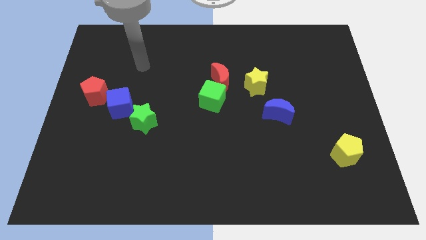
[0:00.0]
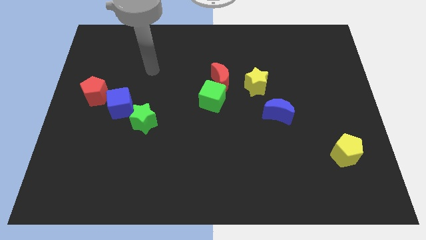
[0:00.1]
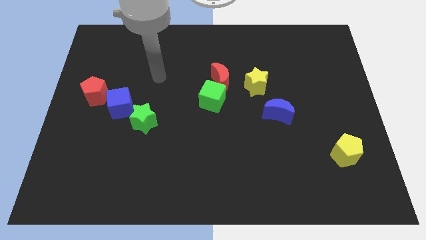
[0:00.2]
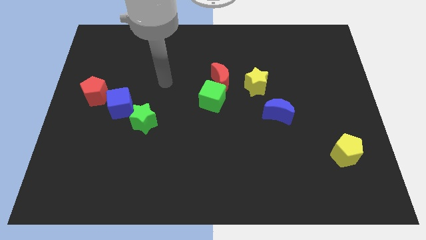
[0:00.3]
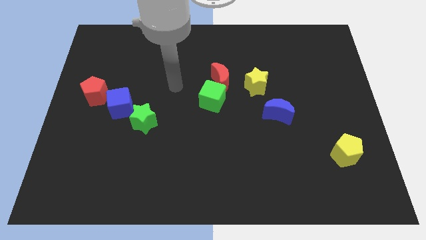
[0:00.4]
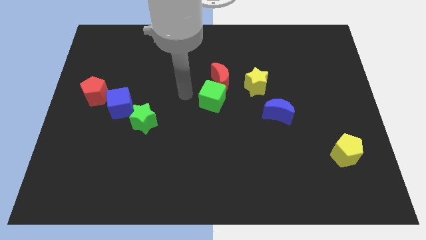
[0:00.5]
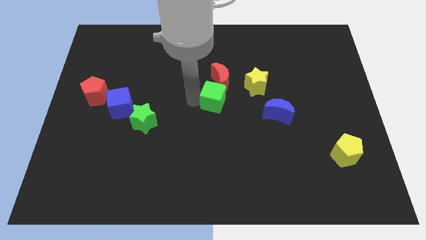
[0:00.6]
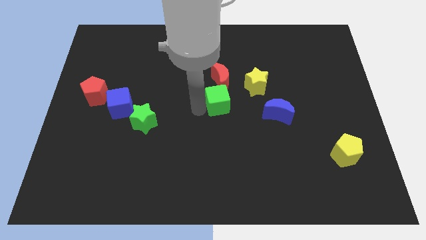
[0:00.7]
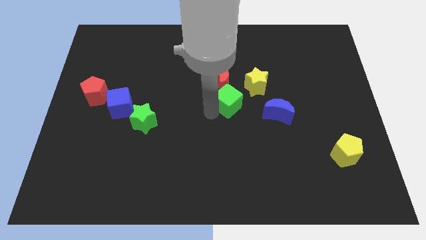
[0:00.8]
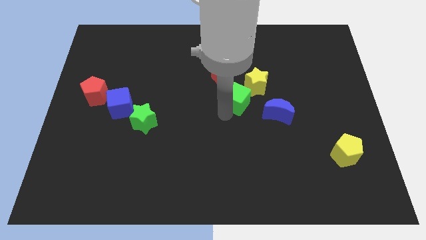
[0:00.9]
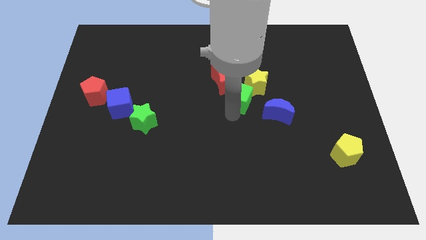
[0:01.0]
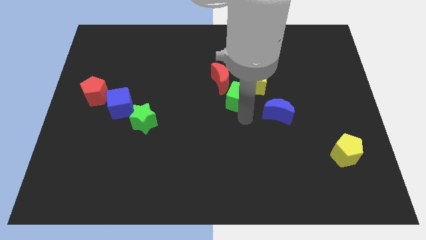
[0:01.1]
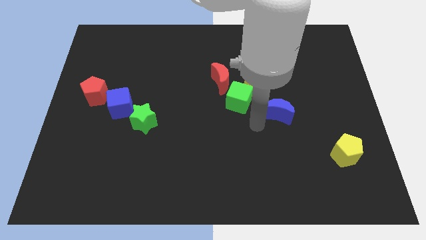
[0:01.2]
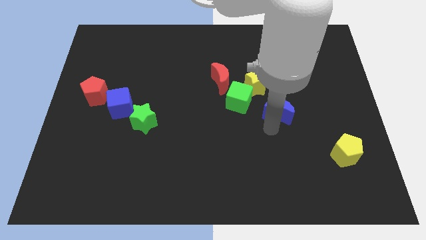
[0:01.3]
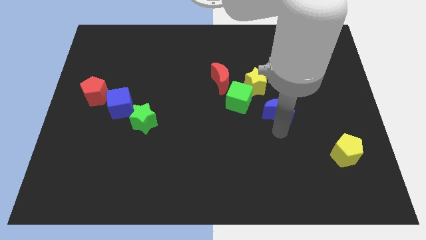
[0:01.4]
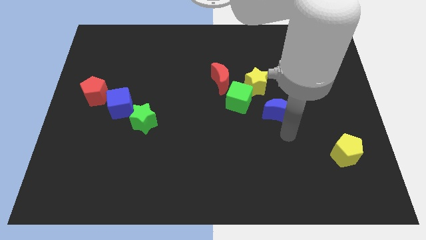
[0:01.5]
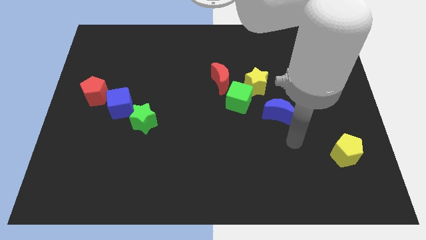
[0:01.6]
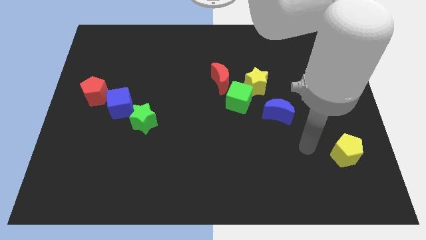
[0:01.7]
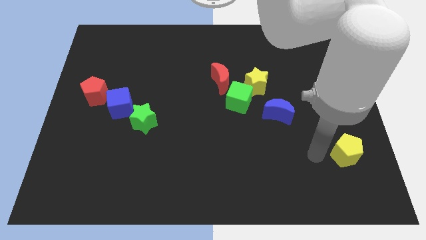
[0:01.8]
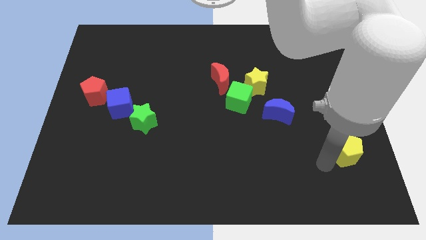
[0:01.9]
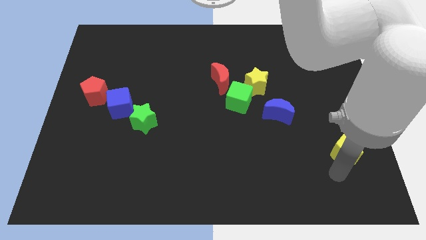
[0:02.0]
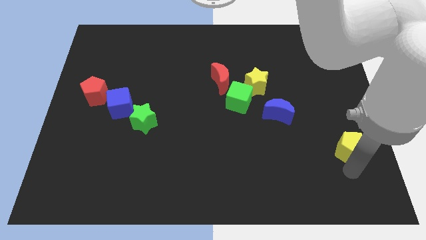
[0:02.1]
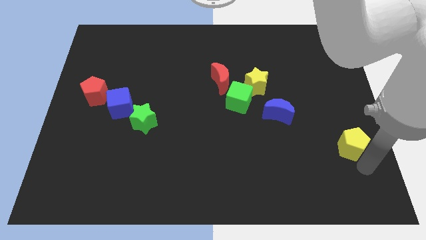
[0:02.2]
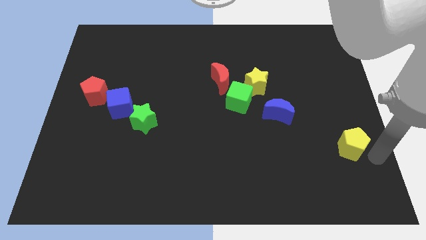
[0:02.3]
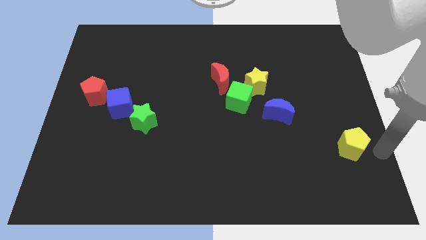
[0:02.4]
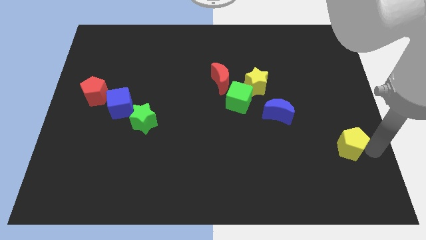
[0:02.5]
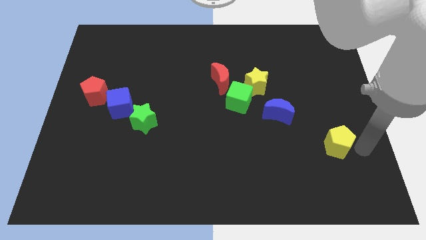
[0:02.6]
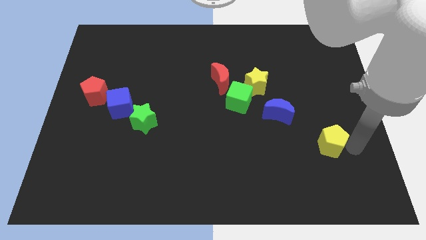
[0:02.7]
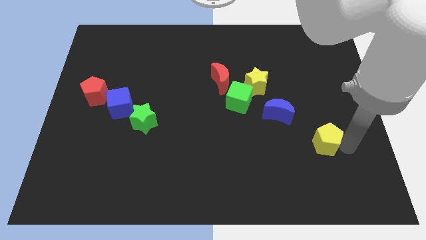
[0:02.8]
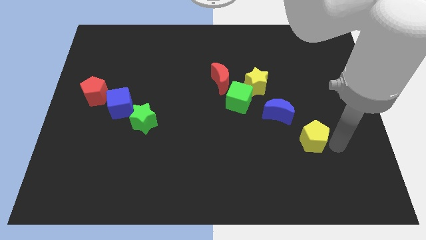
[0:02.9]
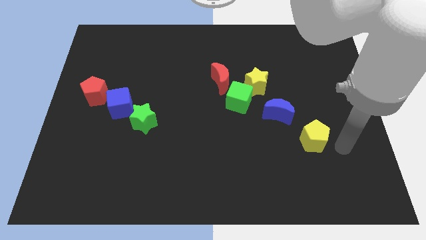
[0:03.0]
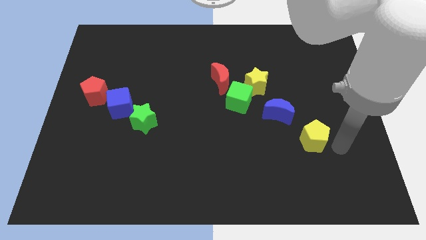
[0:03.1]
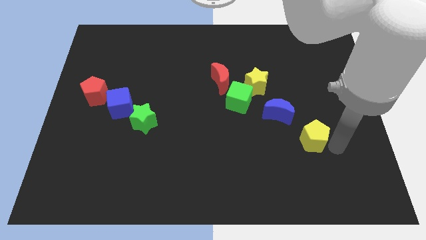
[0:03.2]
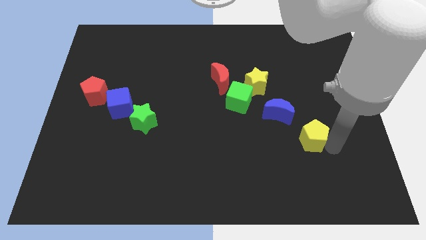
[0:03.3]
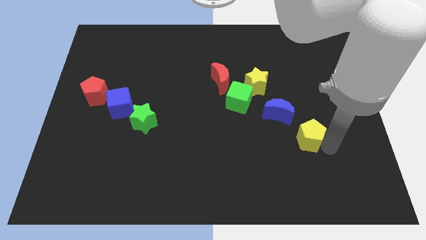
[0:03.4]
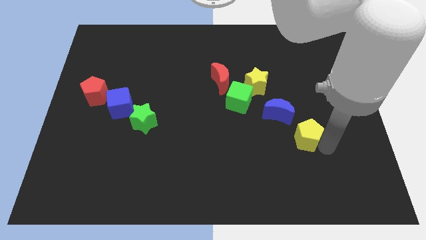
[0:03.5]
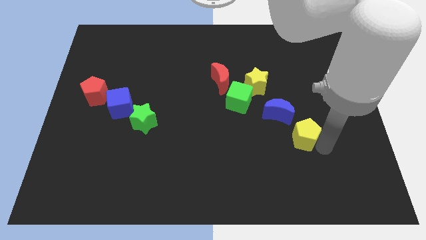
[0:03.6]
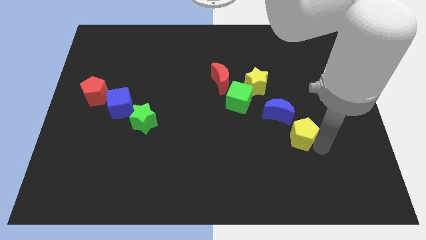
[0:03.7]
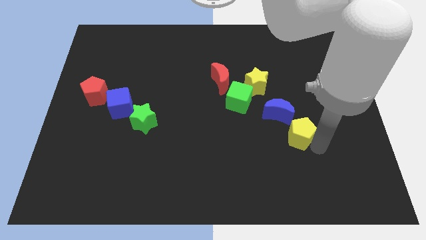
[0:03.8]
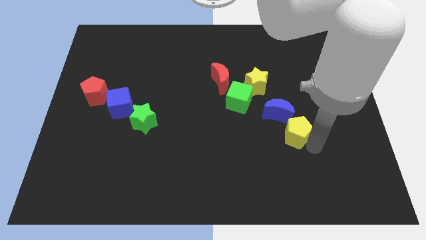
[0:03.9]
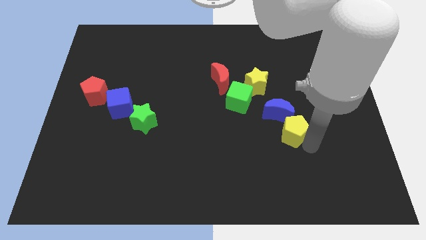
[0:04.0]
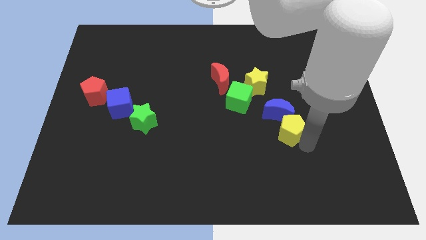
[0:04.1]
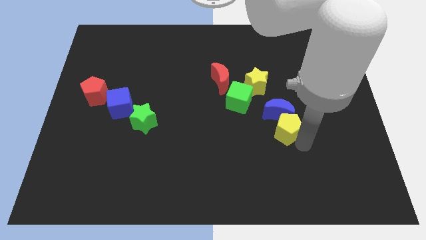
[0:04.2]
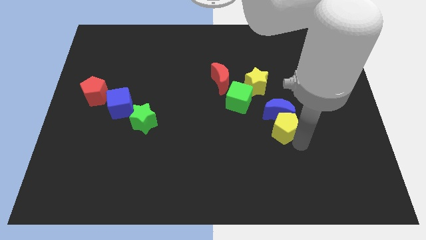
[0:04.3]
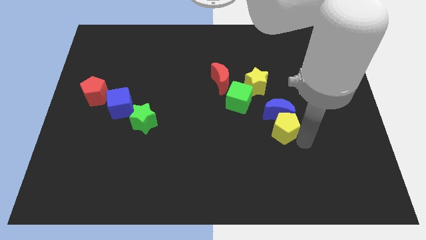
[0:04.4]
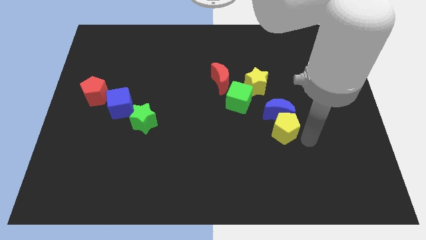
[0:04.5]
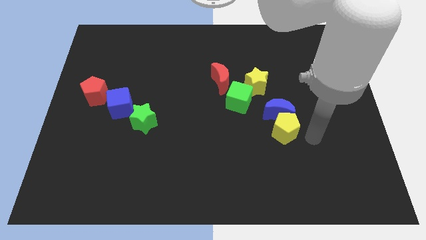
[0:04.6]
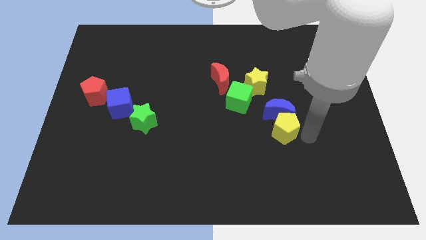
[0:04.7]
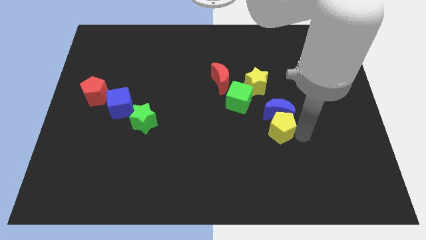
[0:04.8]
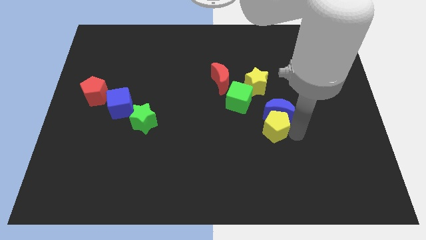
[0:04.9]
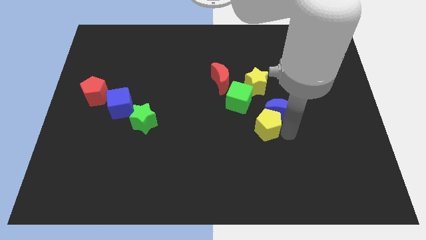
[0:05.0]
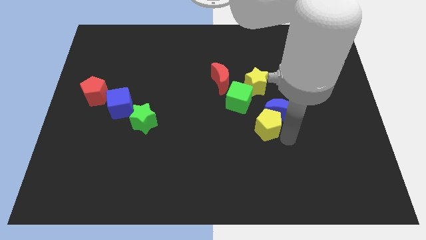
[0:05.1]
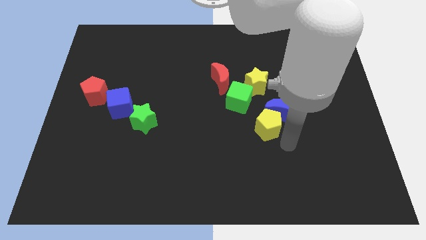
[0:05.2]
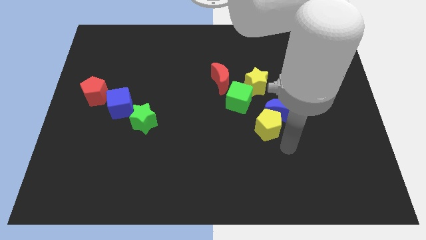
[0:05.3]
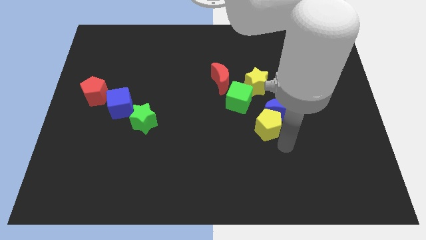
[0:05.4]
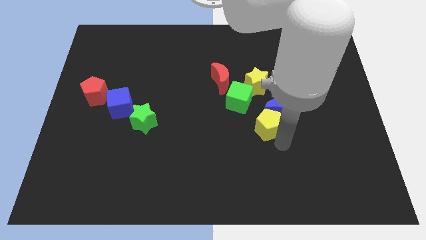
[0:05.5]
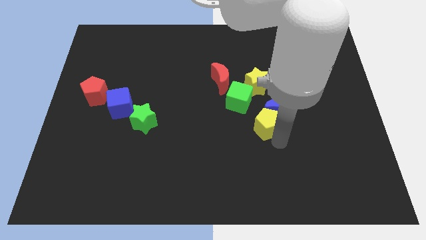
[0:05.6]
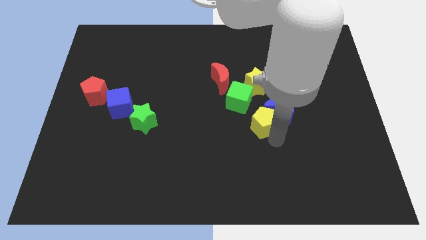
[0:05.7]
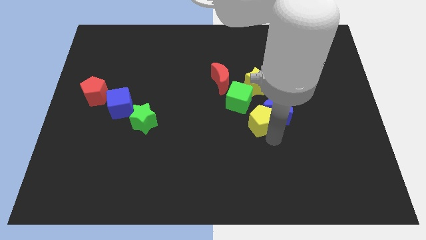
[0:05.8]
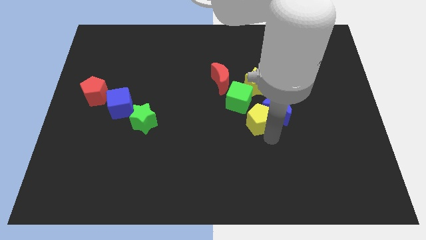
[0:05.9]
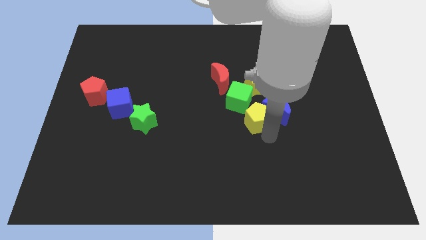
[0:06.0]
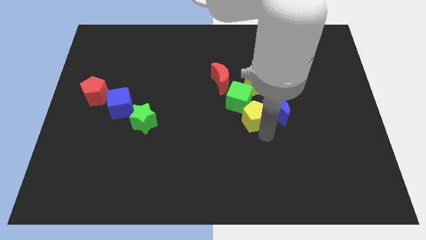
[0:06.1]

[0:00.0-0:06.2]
slide the yellow pentagon towards the green cube
